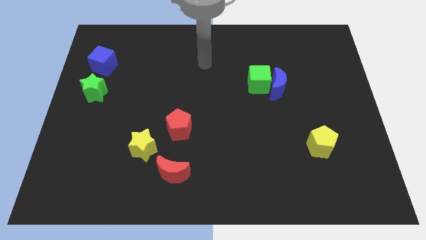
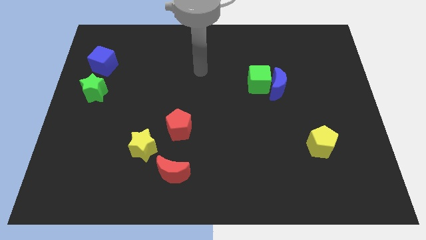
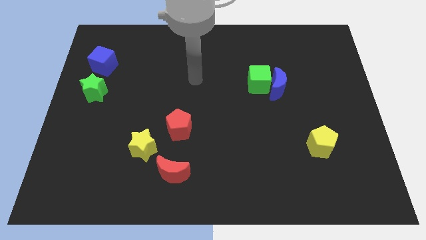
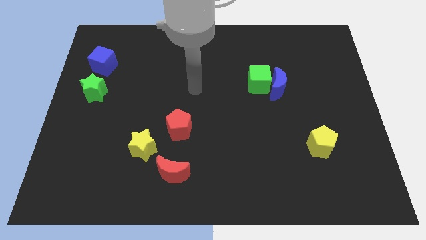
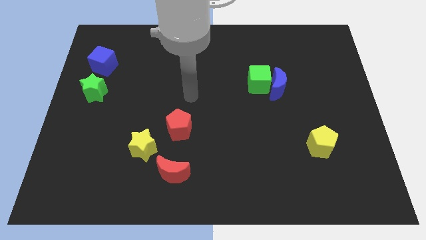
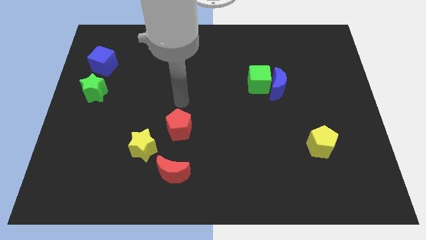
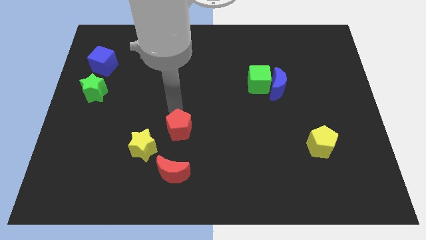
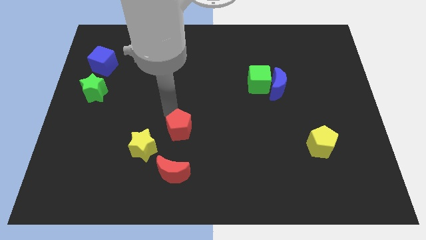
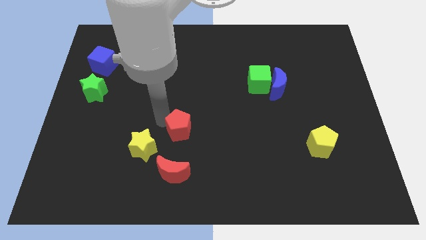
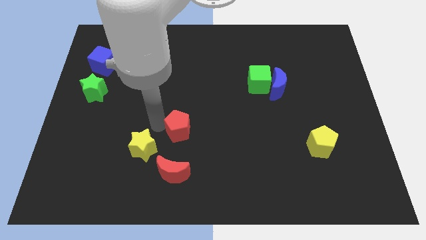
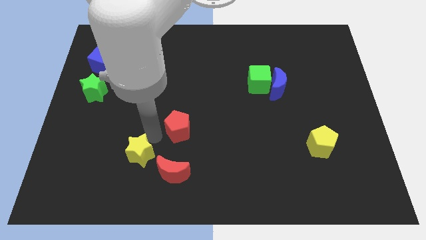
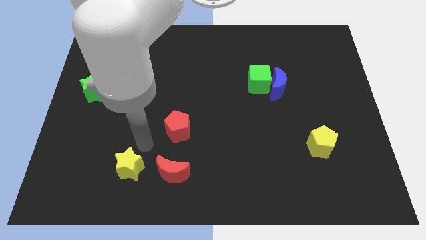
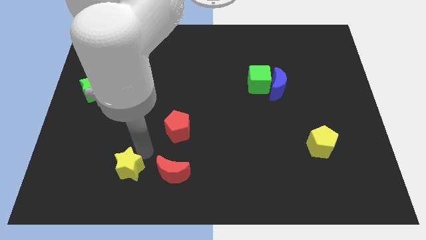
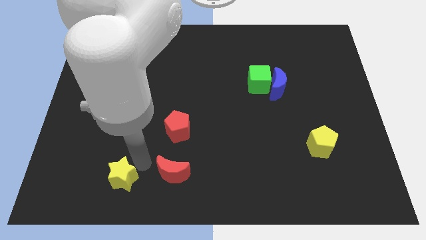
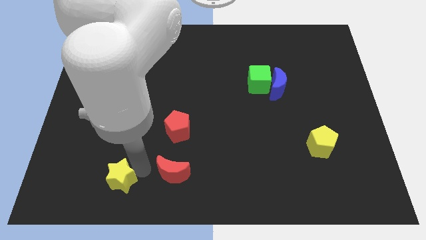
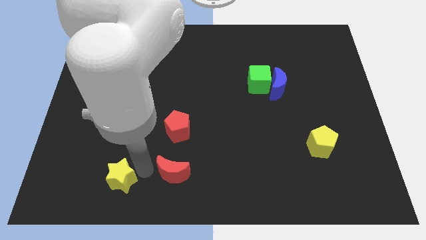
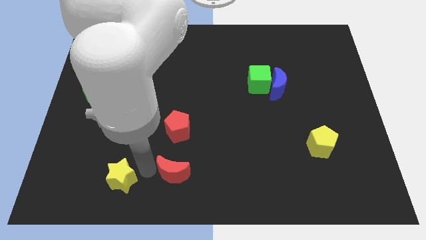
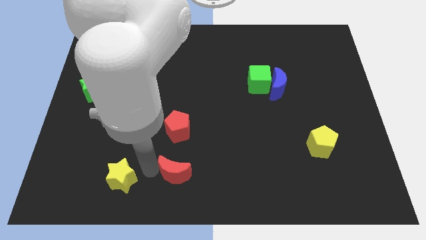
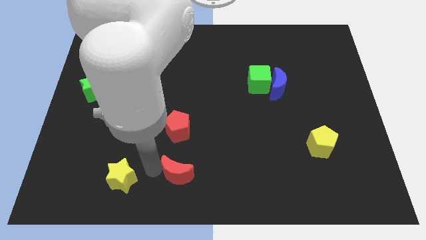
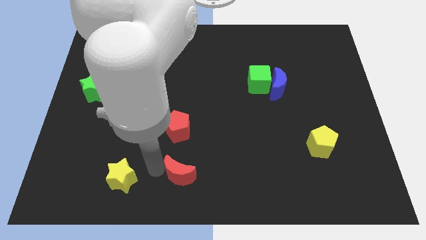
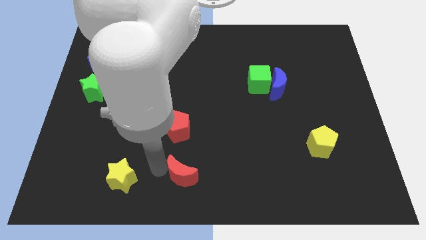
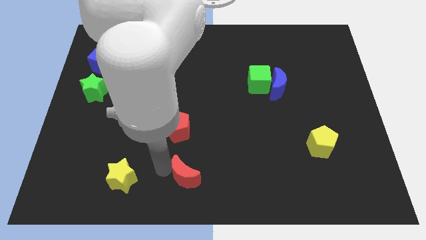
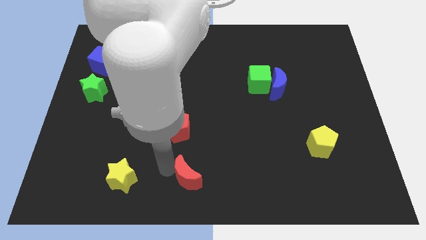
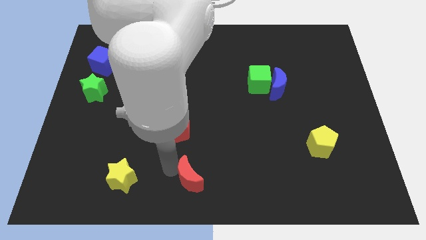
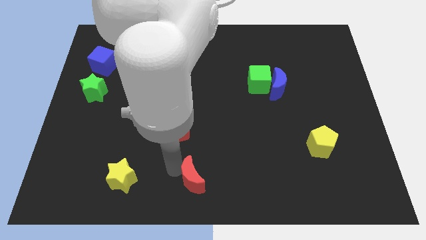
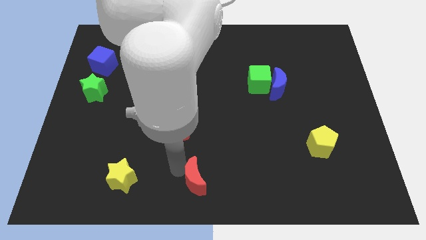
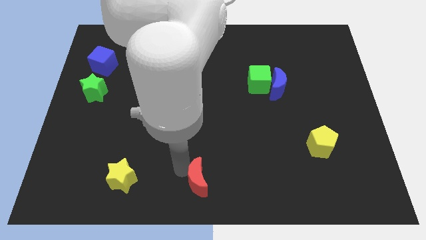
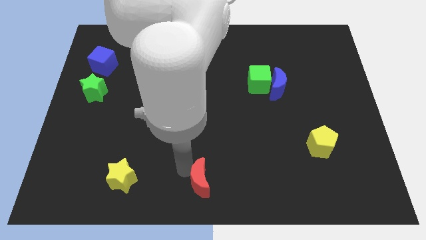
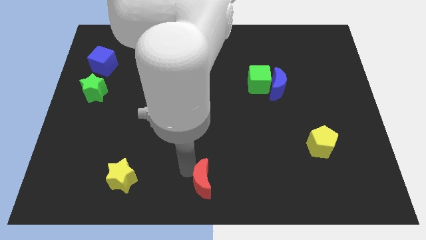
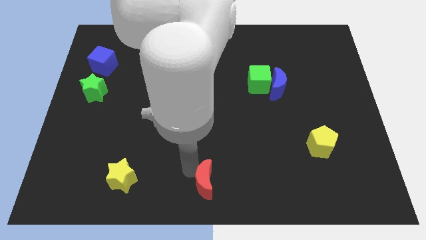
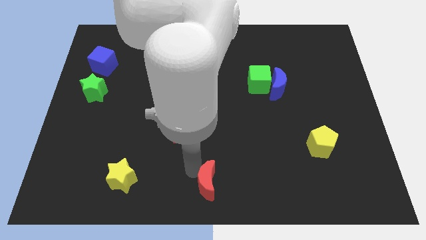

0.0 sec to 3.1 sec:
slightly push the red moon right

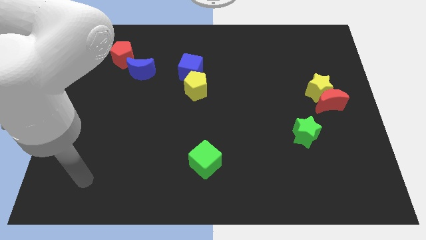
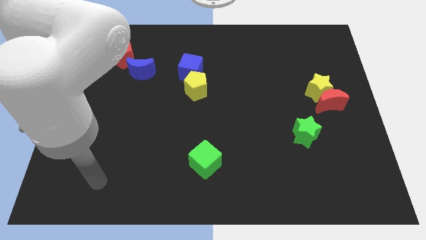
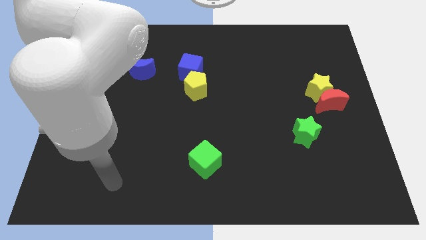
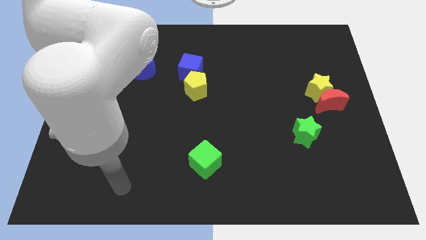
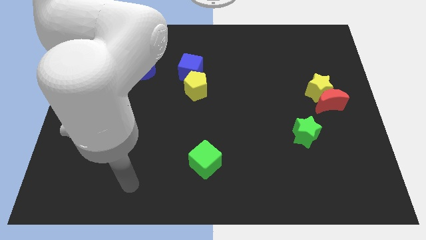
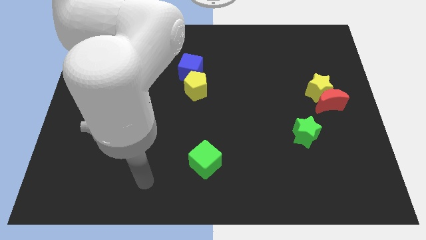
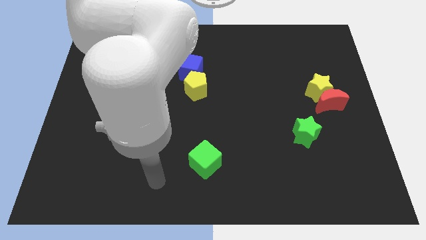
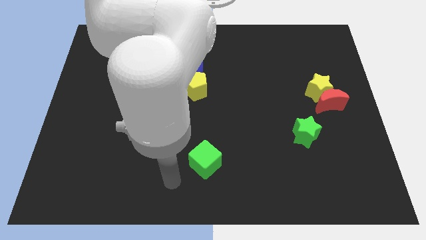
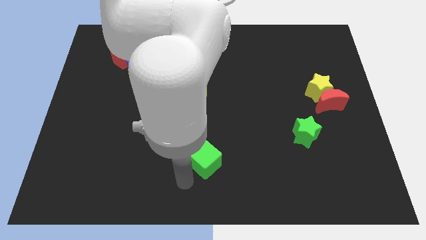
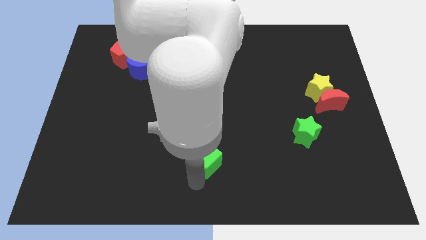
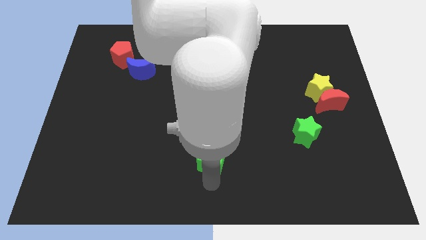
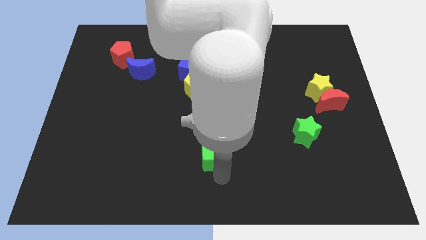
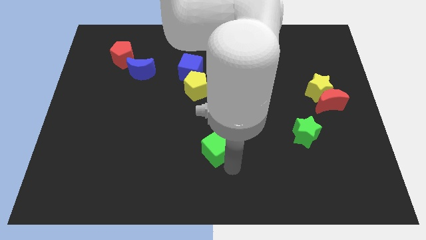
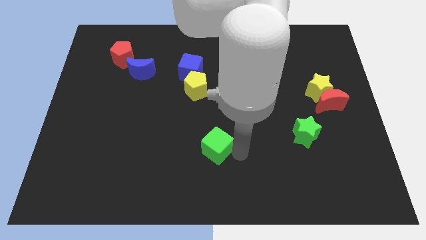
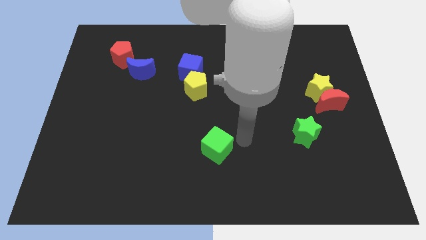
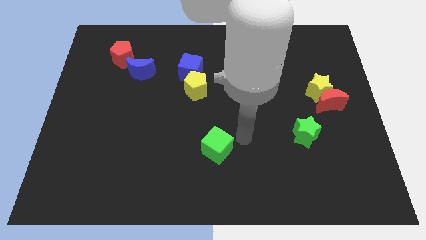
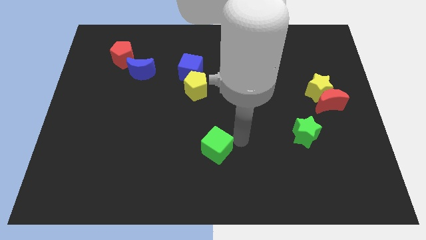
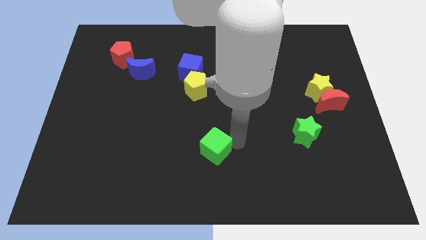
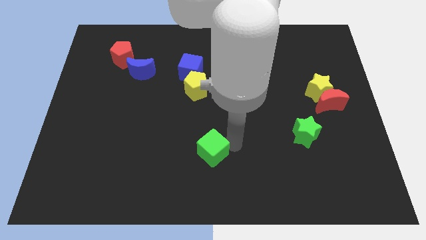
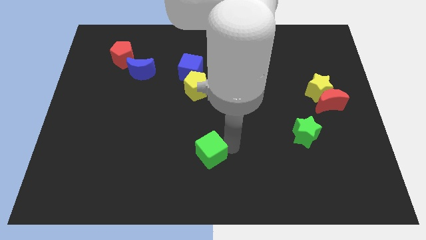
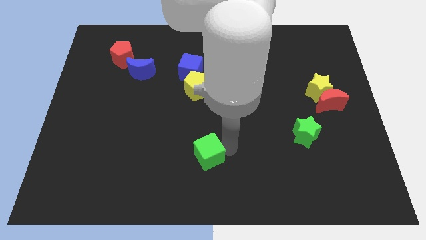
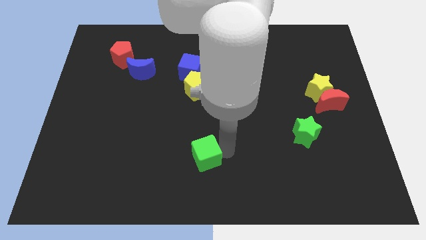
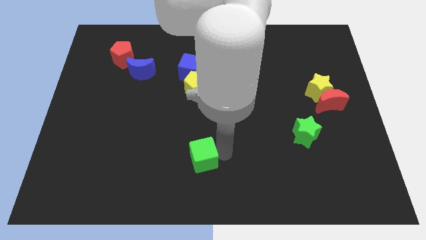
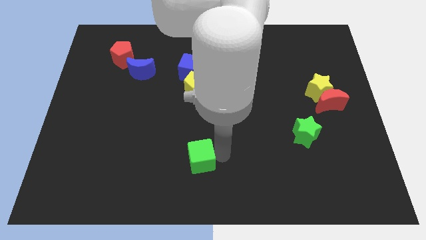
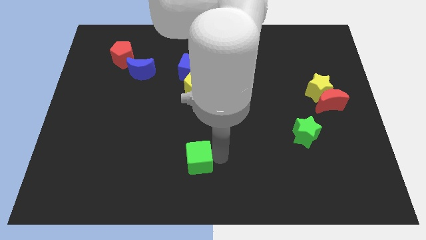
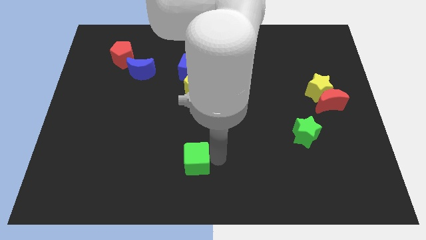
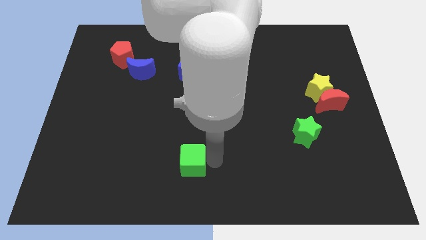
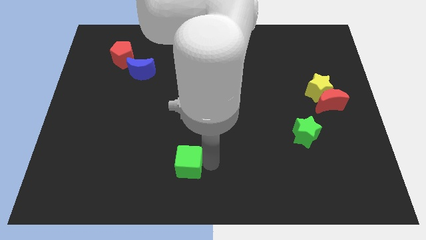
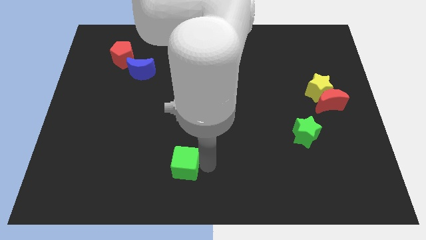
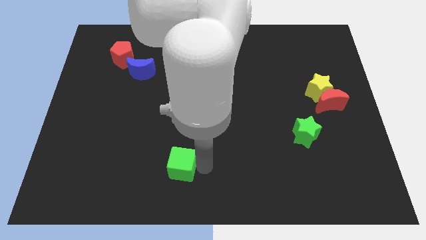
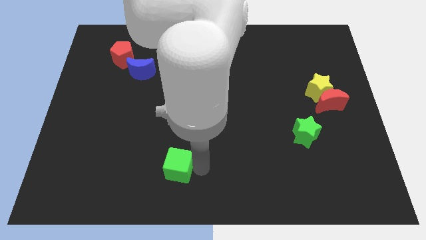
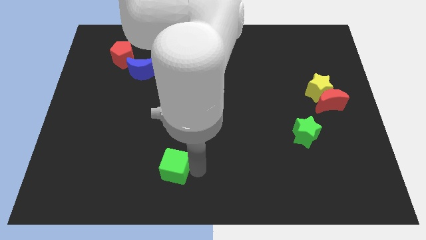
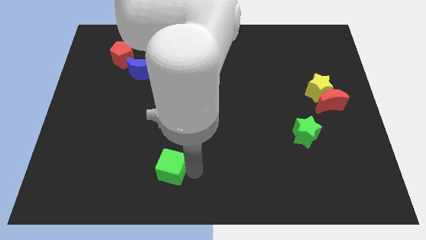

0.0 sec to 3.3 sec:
slightly slide the green cube to the left

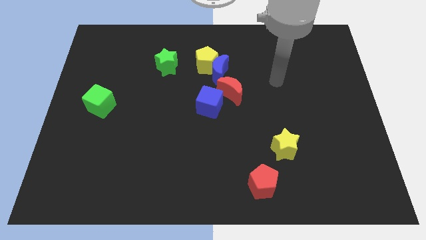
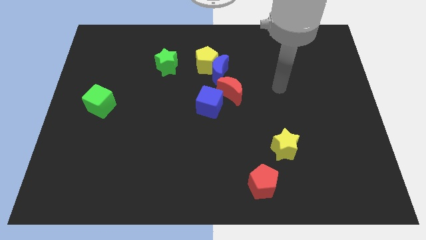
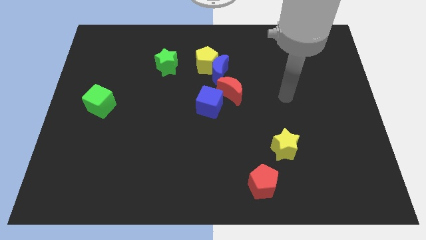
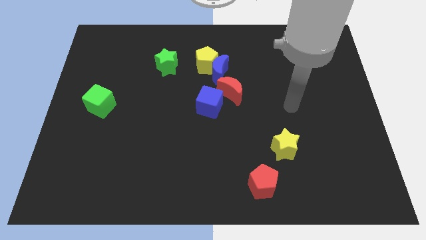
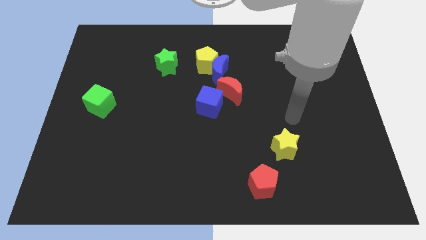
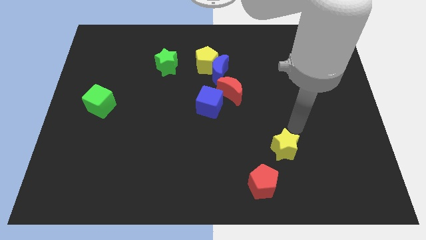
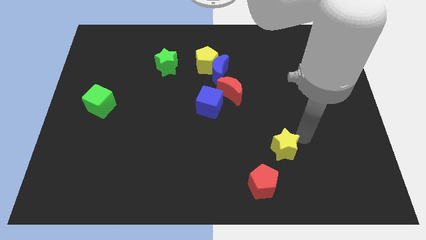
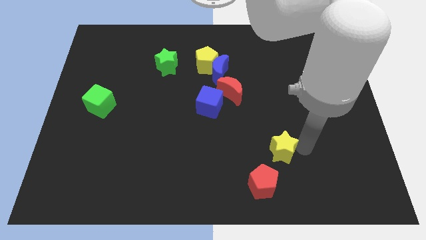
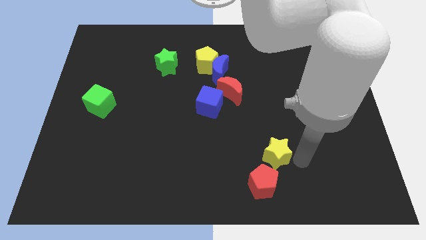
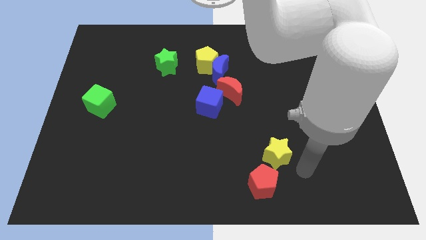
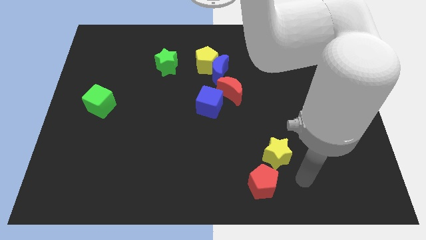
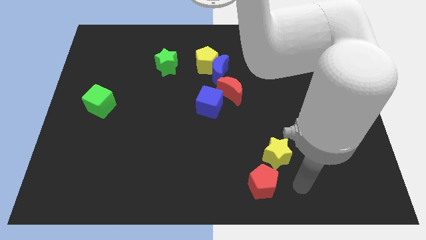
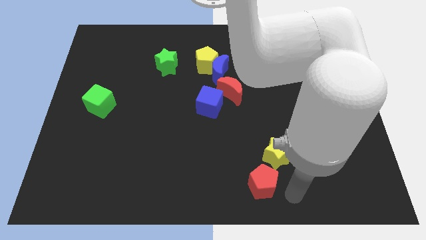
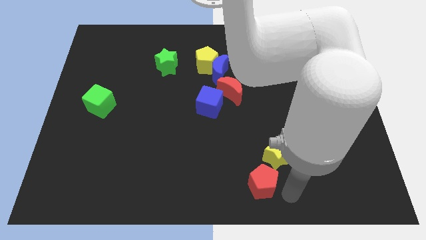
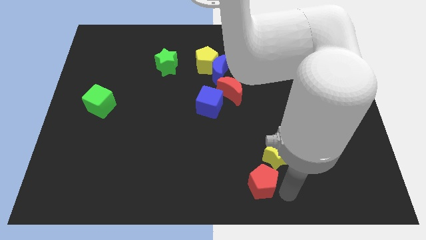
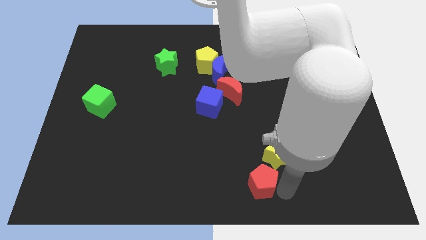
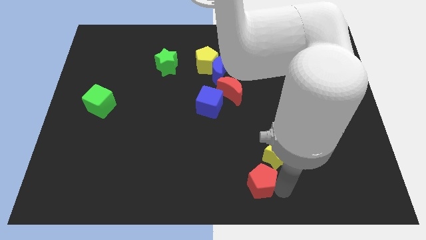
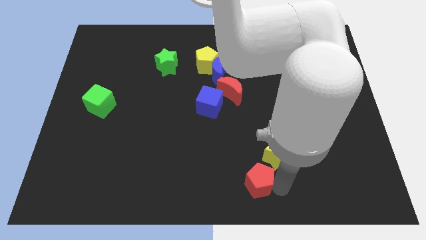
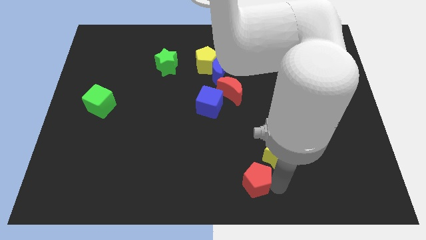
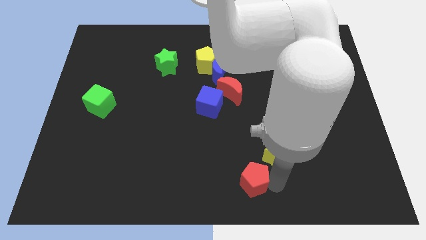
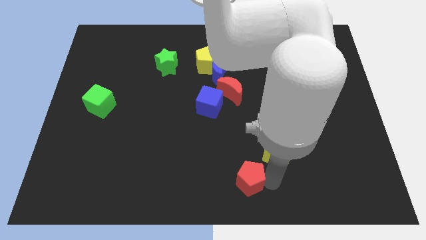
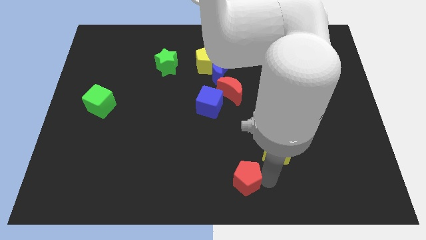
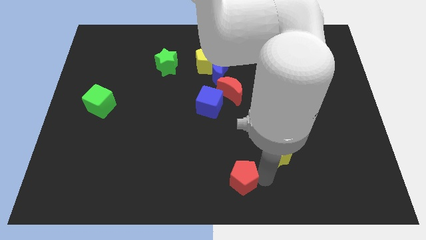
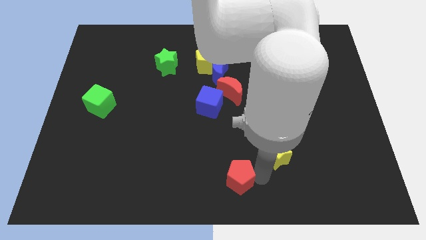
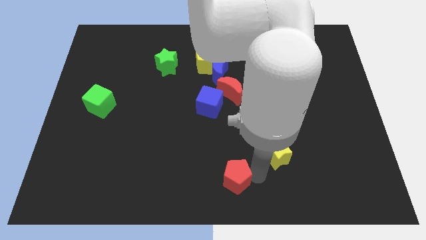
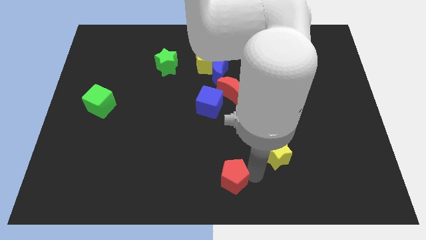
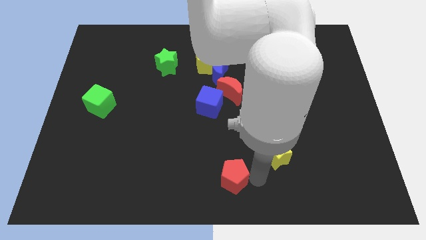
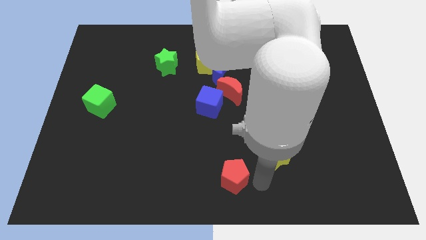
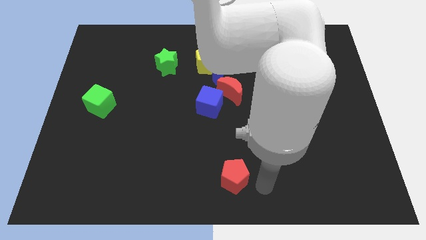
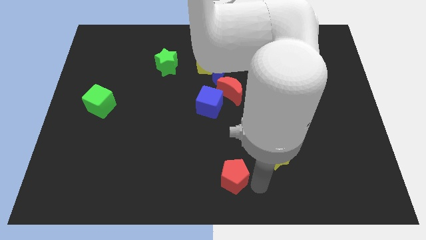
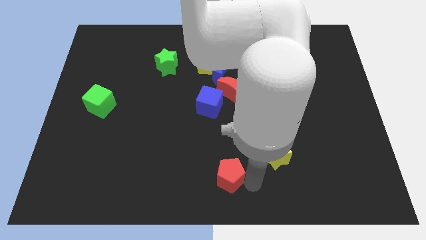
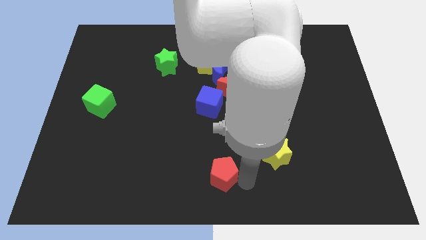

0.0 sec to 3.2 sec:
push the red pentagon slightly left
